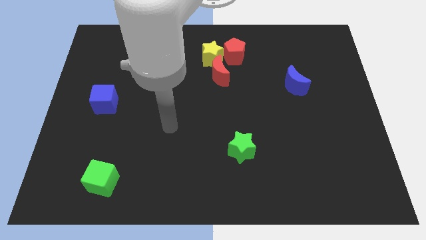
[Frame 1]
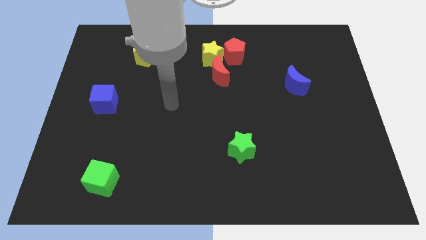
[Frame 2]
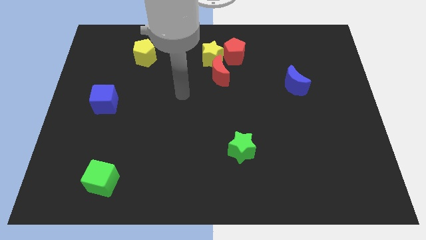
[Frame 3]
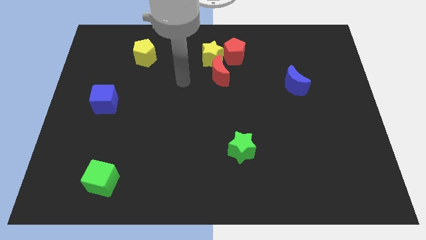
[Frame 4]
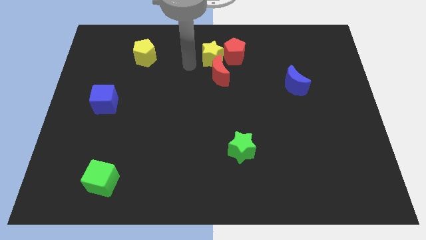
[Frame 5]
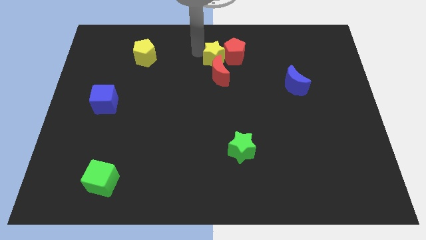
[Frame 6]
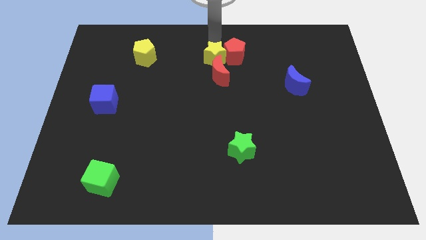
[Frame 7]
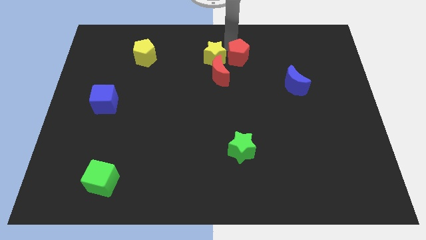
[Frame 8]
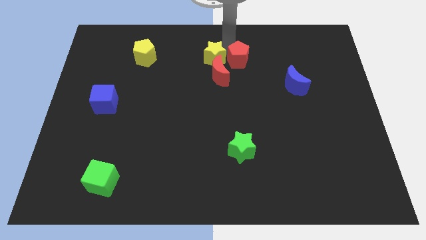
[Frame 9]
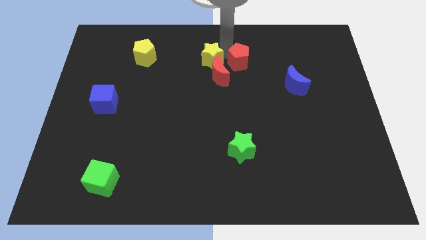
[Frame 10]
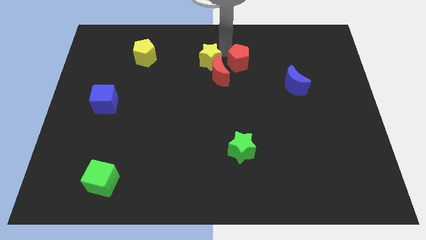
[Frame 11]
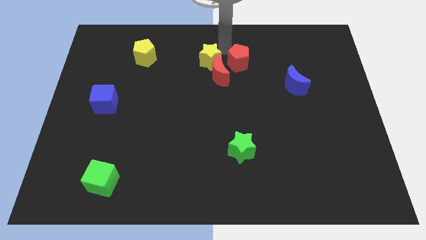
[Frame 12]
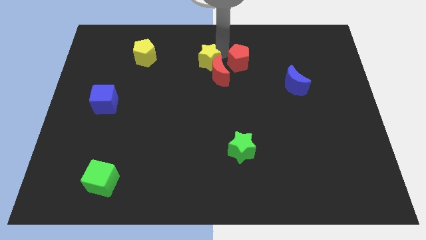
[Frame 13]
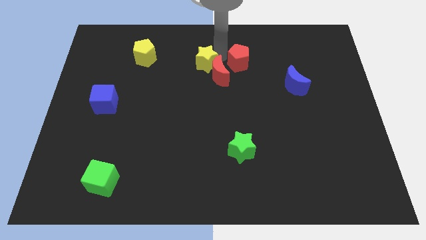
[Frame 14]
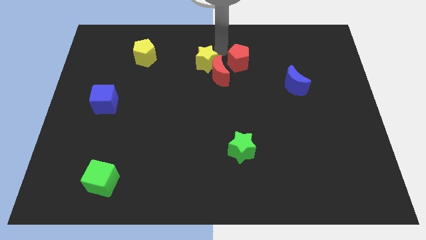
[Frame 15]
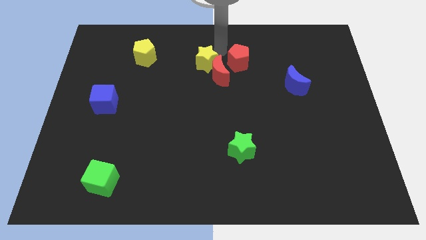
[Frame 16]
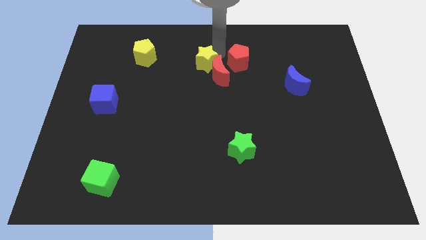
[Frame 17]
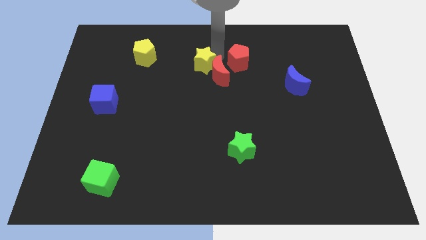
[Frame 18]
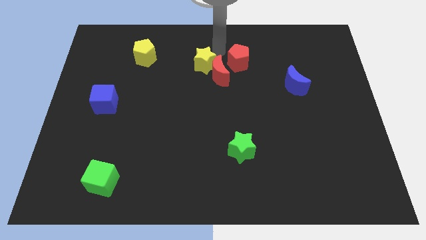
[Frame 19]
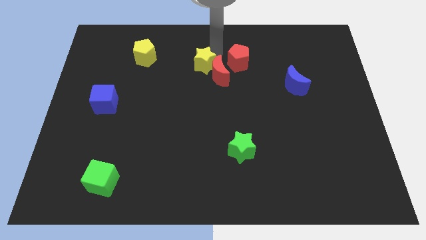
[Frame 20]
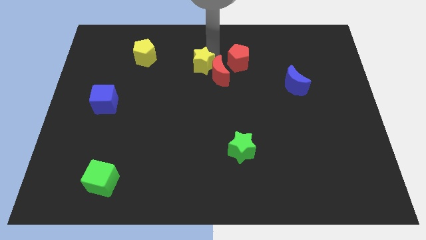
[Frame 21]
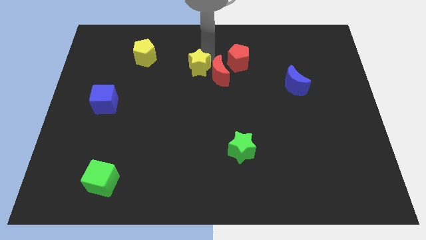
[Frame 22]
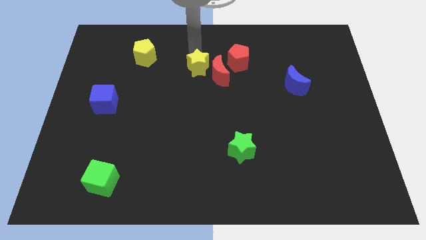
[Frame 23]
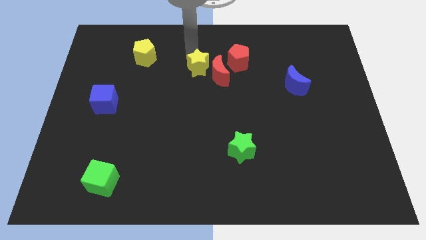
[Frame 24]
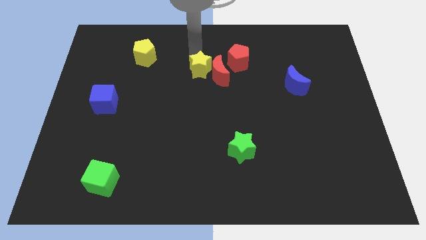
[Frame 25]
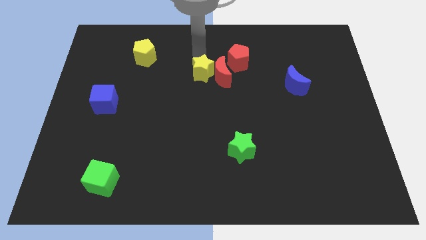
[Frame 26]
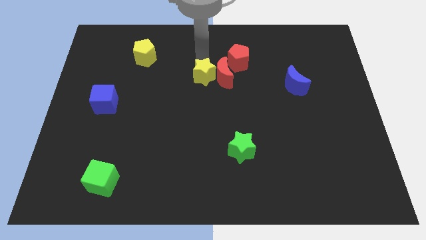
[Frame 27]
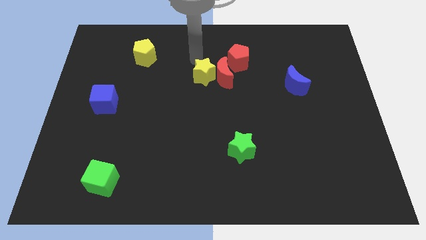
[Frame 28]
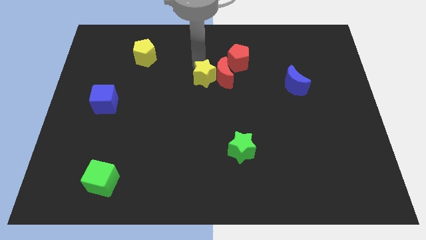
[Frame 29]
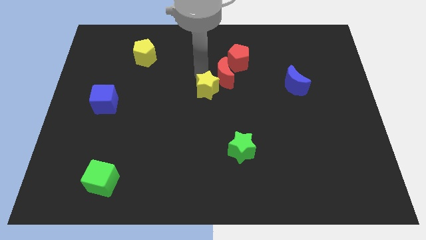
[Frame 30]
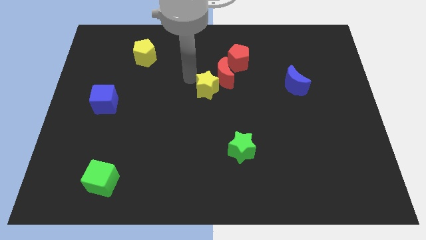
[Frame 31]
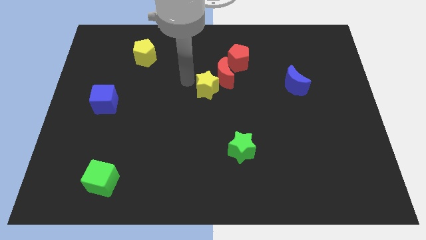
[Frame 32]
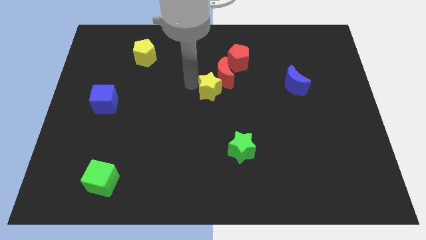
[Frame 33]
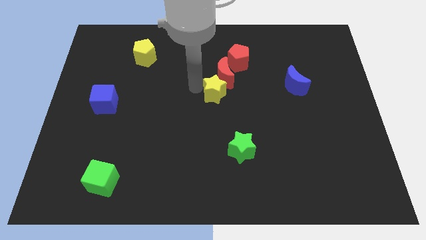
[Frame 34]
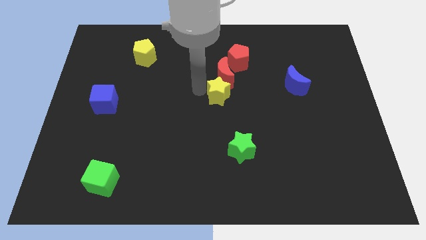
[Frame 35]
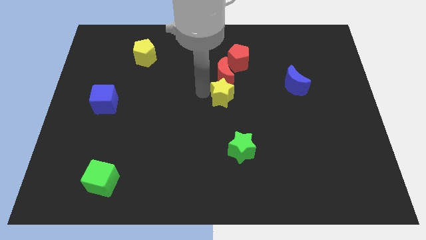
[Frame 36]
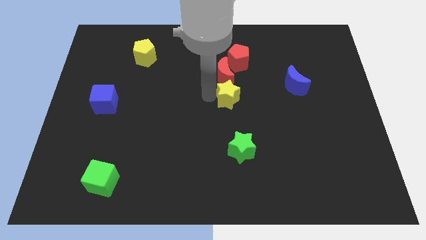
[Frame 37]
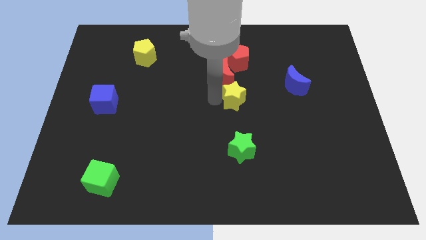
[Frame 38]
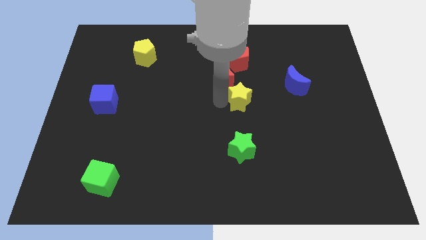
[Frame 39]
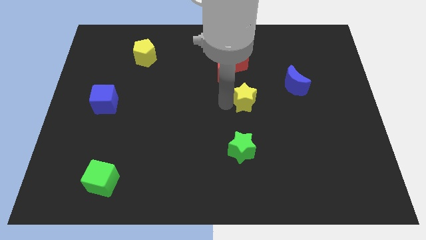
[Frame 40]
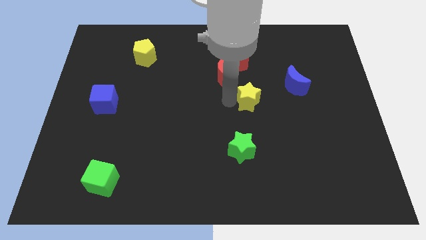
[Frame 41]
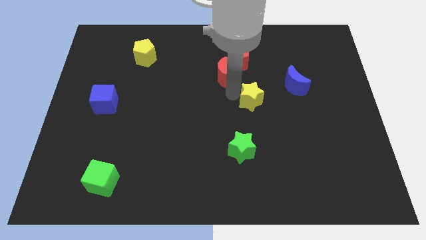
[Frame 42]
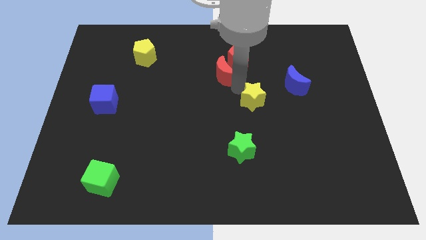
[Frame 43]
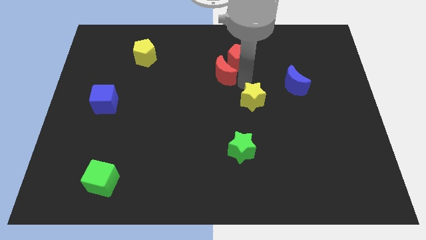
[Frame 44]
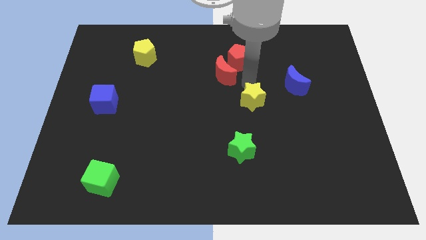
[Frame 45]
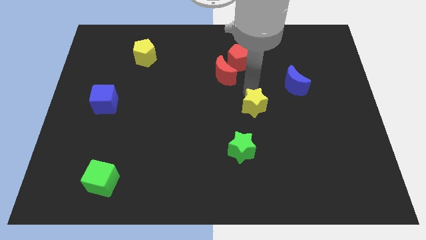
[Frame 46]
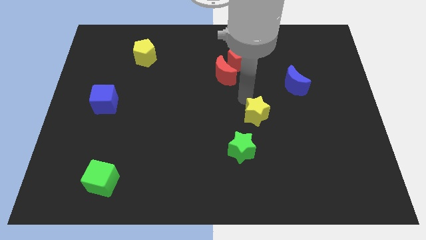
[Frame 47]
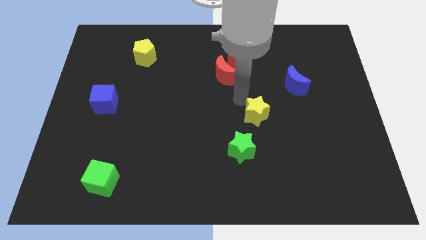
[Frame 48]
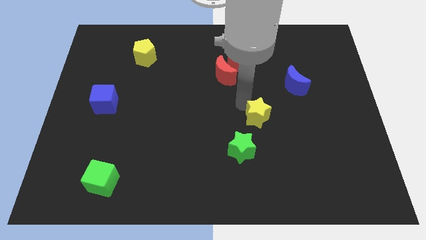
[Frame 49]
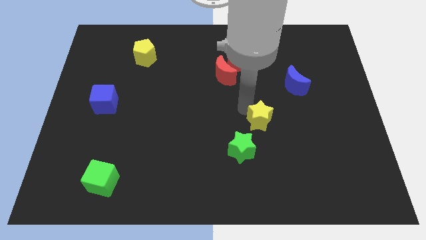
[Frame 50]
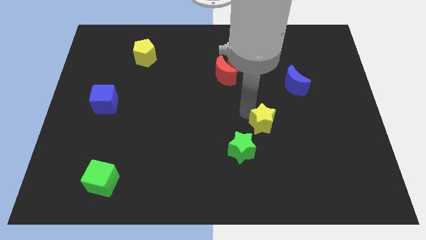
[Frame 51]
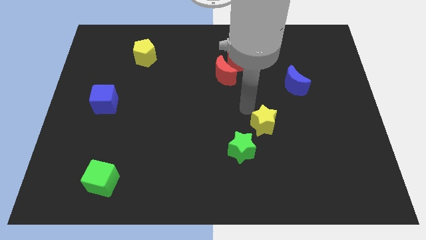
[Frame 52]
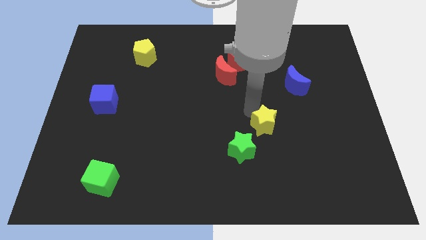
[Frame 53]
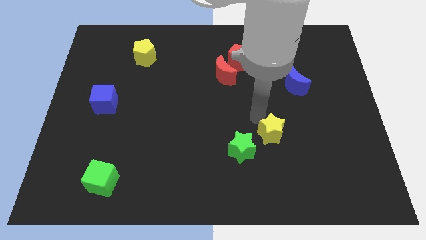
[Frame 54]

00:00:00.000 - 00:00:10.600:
put the yellow star to the right side of the green star

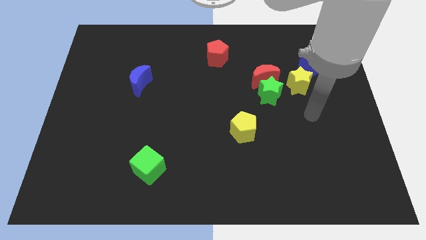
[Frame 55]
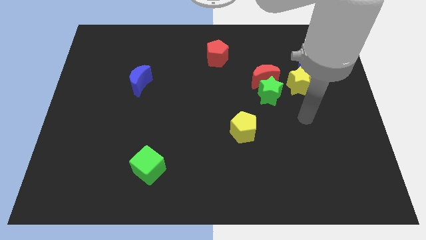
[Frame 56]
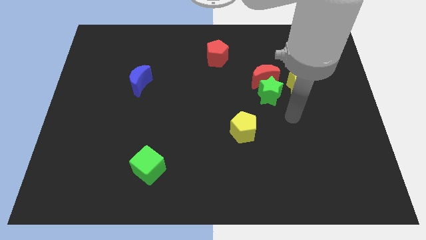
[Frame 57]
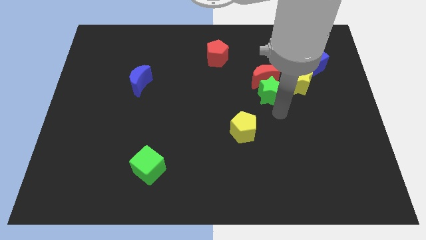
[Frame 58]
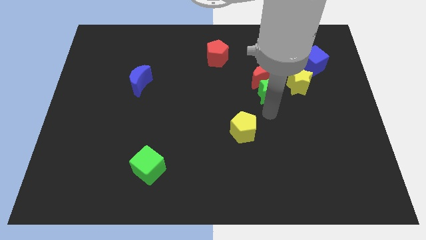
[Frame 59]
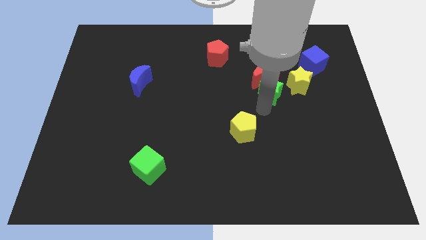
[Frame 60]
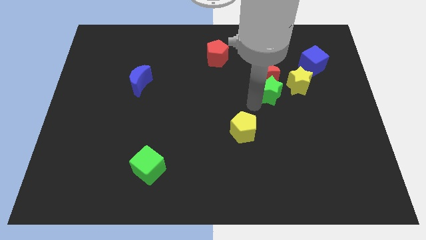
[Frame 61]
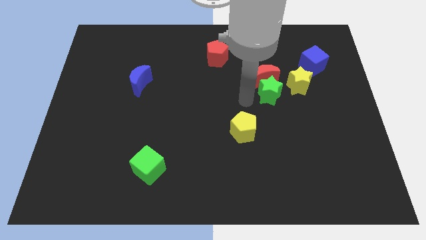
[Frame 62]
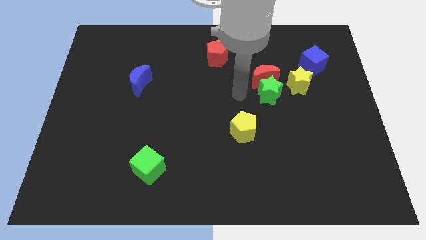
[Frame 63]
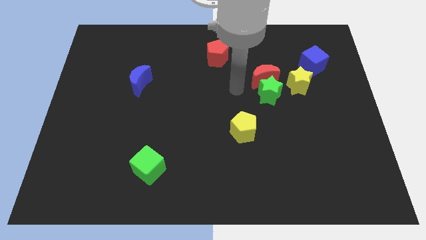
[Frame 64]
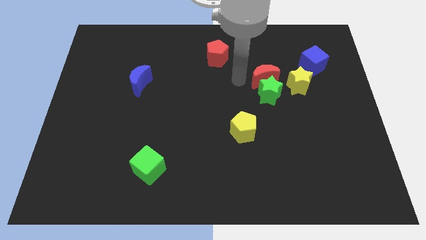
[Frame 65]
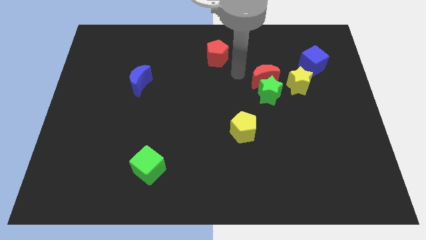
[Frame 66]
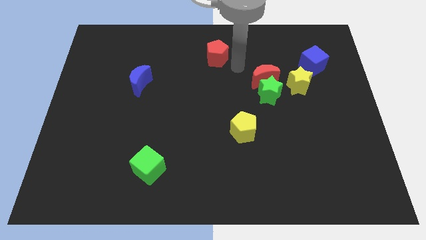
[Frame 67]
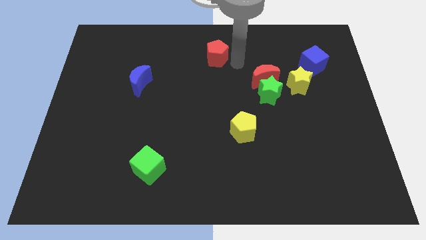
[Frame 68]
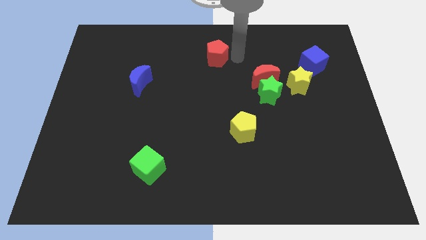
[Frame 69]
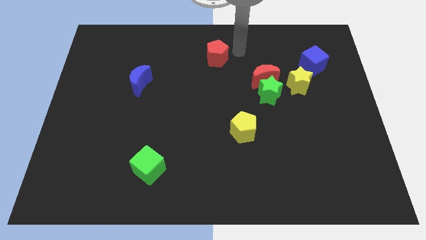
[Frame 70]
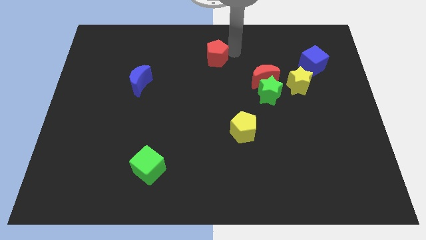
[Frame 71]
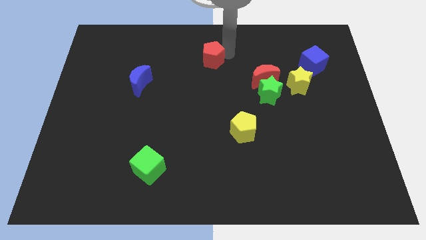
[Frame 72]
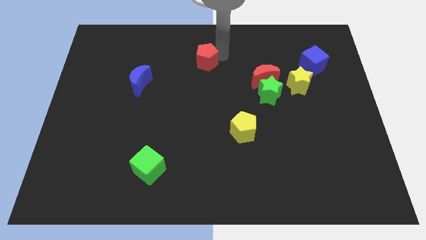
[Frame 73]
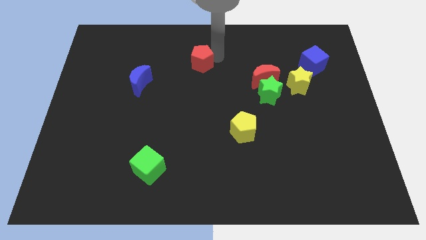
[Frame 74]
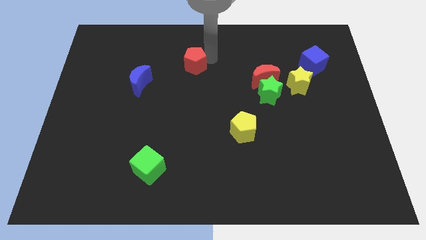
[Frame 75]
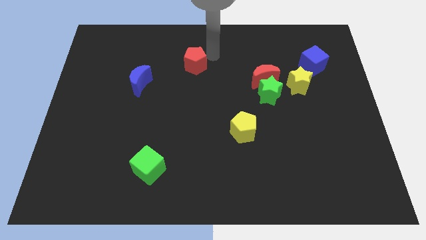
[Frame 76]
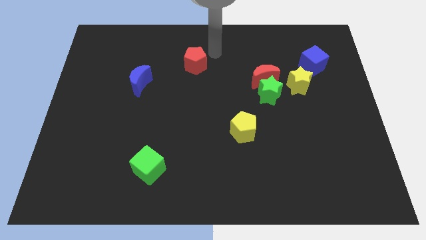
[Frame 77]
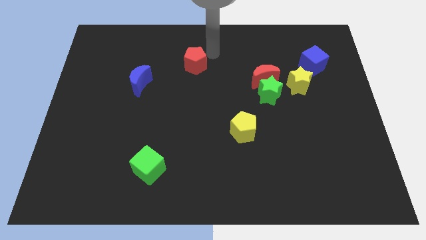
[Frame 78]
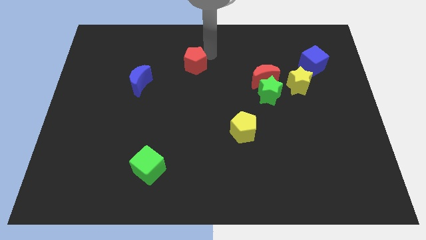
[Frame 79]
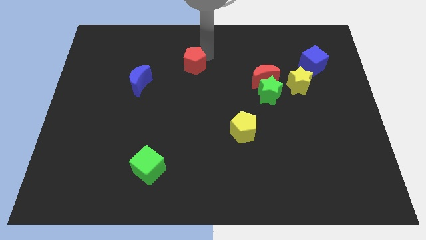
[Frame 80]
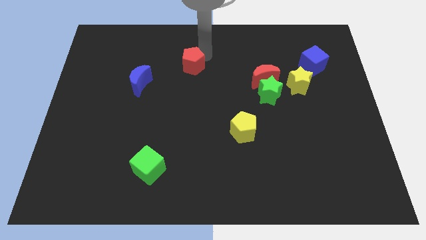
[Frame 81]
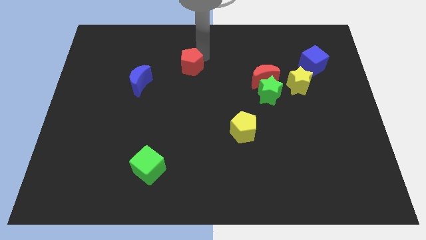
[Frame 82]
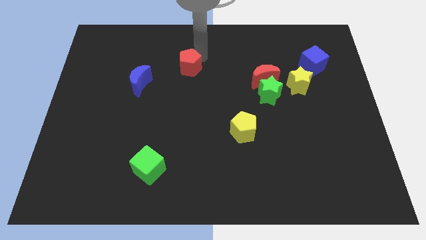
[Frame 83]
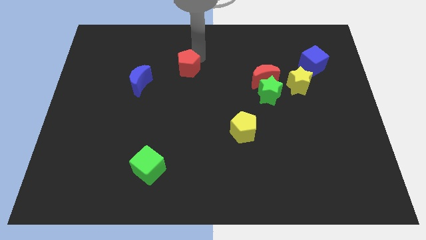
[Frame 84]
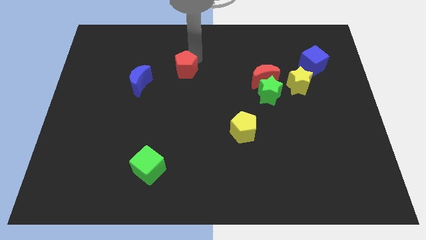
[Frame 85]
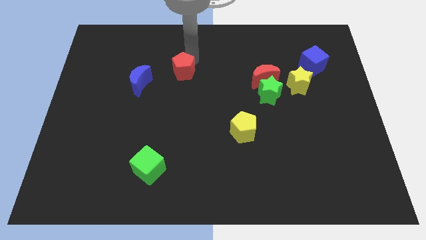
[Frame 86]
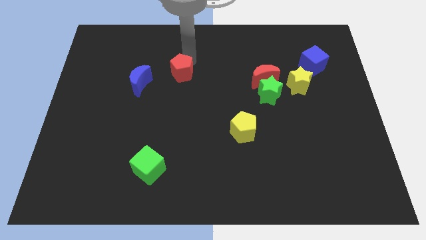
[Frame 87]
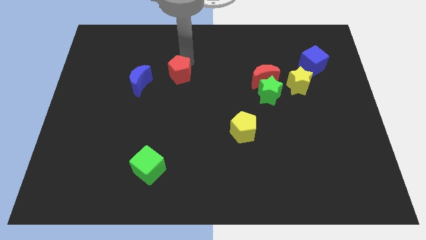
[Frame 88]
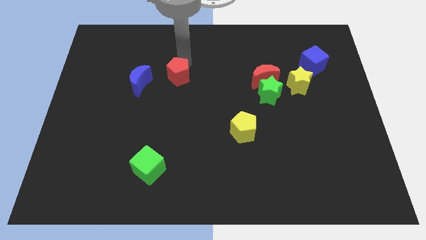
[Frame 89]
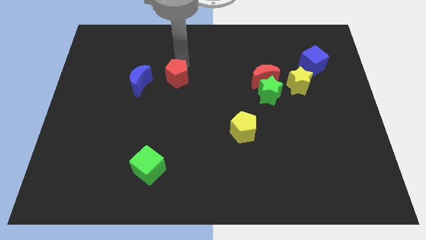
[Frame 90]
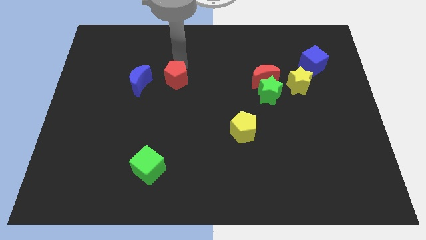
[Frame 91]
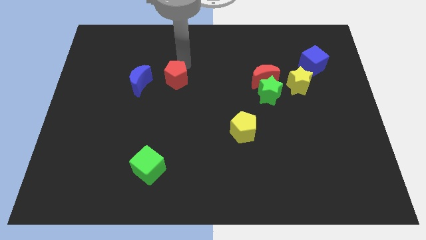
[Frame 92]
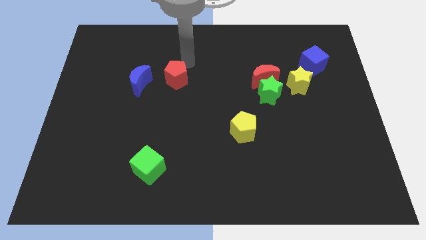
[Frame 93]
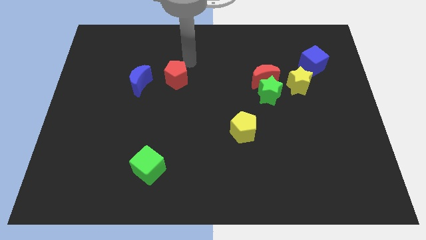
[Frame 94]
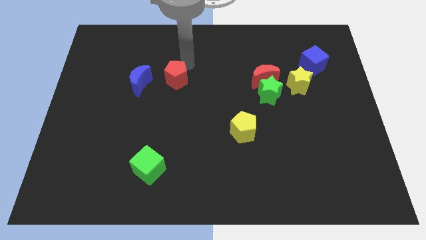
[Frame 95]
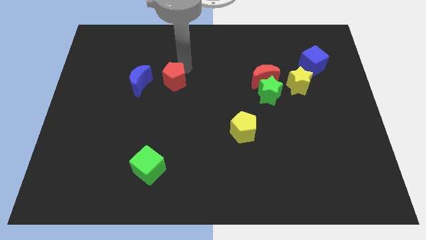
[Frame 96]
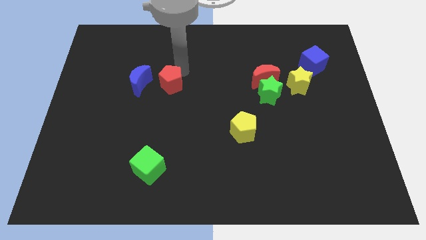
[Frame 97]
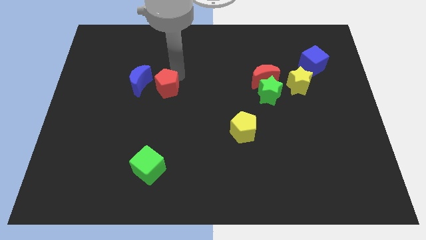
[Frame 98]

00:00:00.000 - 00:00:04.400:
put the red pentagon to the bottom right side of the blue moon
